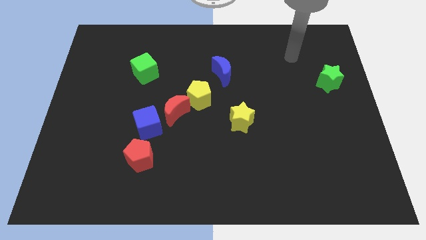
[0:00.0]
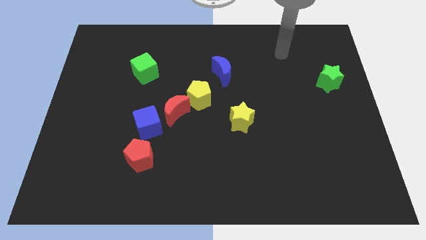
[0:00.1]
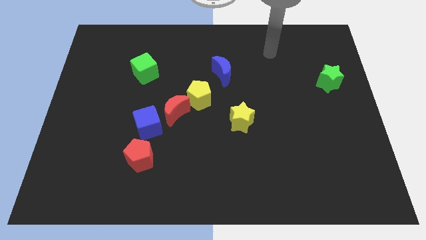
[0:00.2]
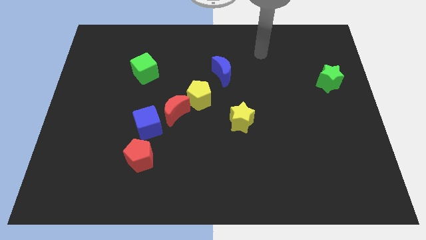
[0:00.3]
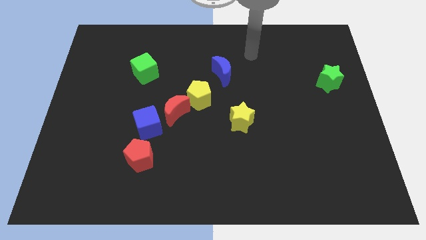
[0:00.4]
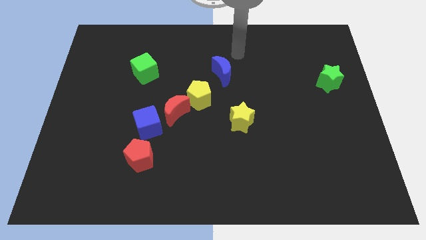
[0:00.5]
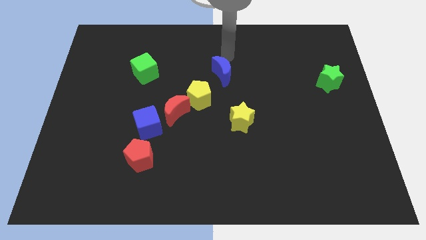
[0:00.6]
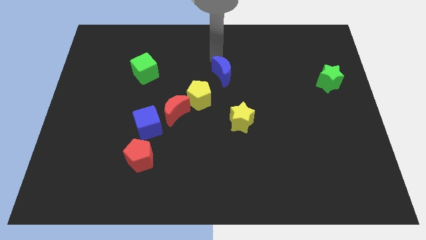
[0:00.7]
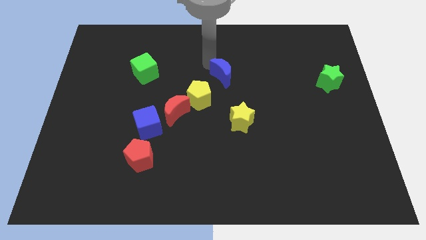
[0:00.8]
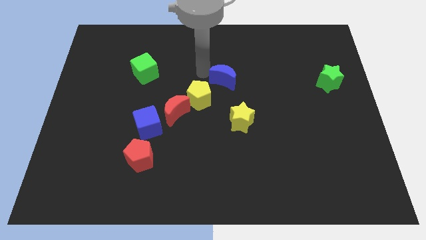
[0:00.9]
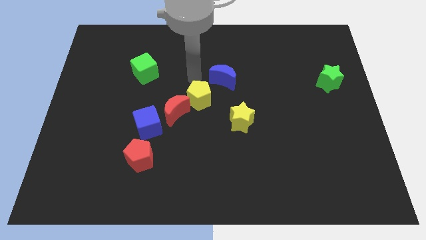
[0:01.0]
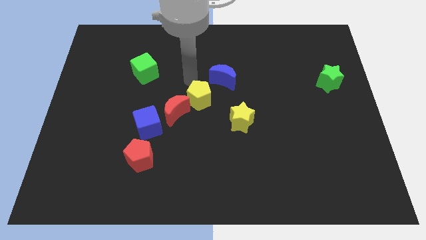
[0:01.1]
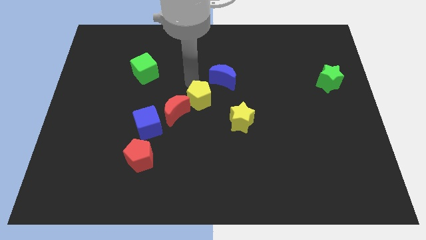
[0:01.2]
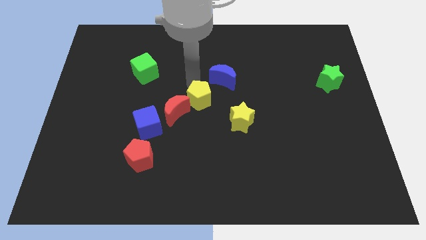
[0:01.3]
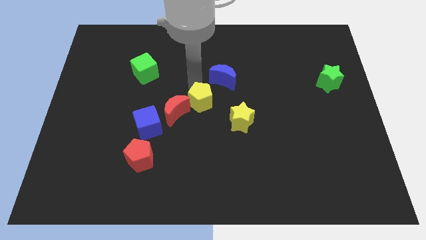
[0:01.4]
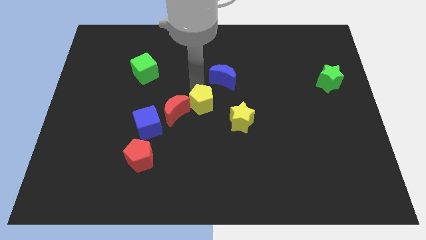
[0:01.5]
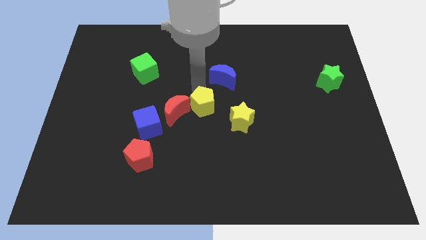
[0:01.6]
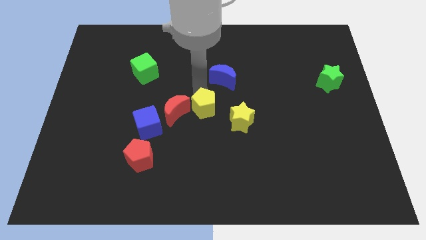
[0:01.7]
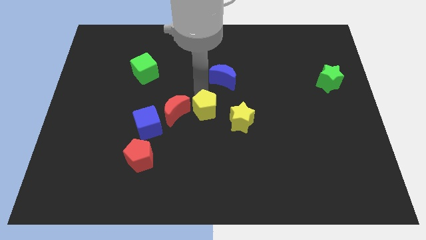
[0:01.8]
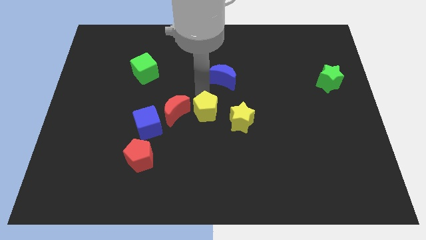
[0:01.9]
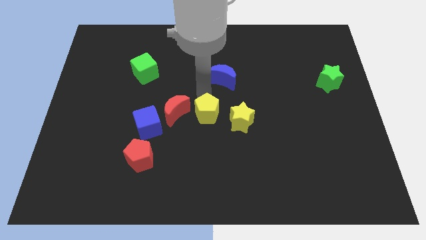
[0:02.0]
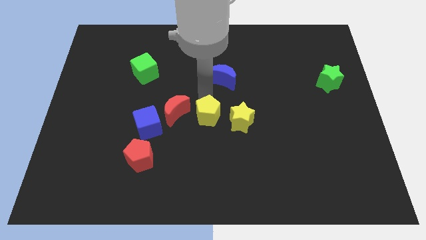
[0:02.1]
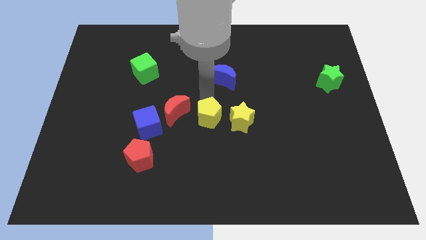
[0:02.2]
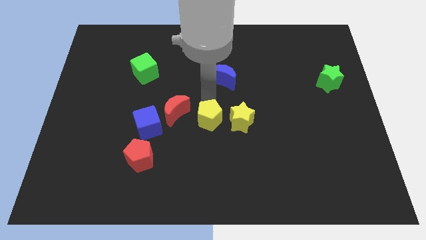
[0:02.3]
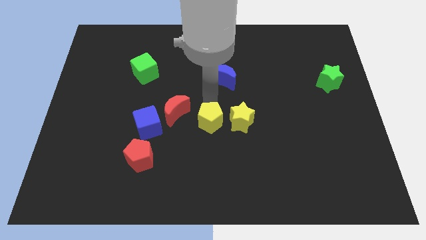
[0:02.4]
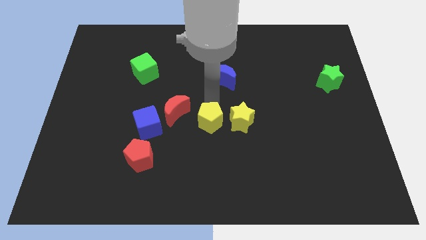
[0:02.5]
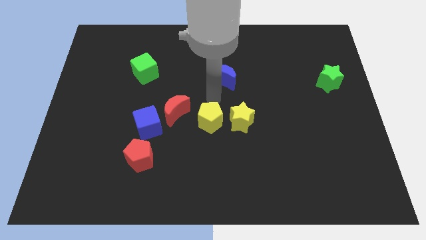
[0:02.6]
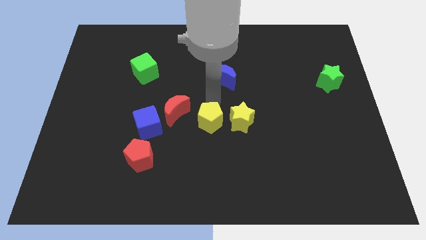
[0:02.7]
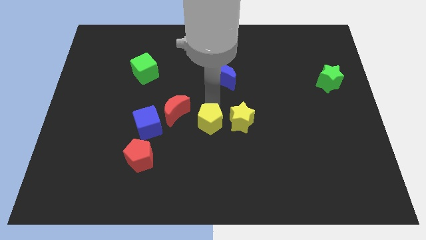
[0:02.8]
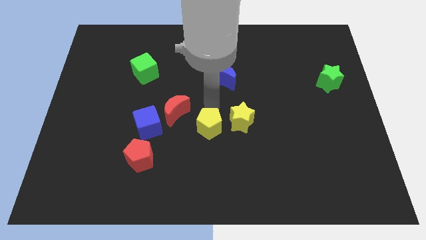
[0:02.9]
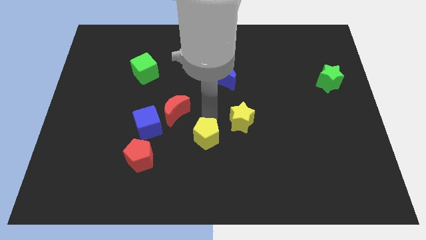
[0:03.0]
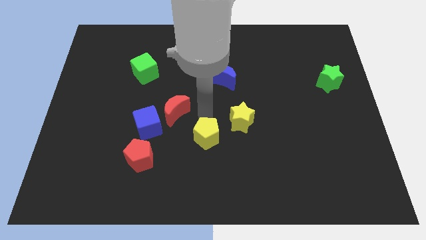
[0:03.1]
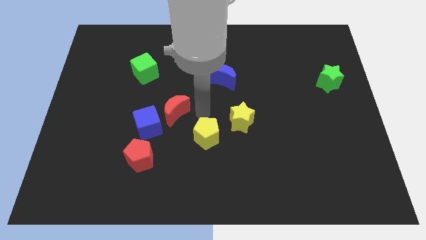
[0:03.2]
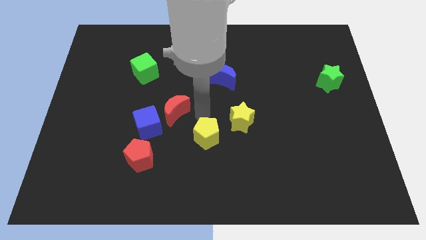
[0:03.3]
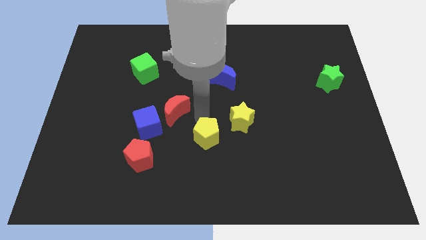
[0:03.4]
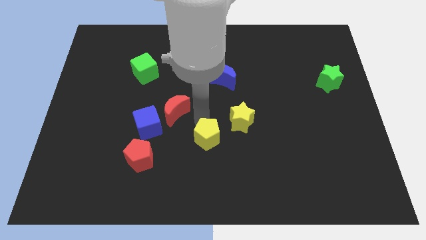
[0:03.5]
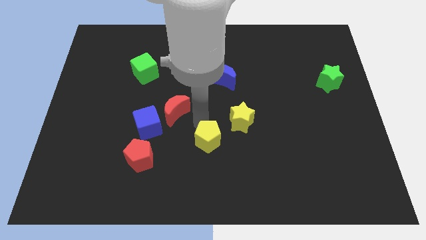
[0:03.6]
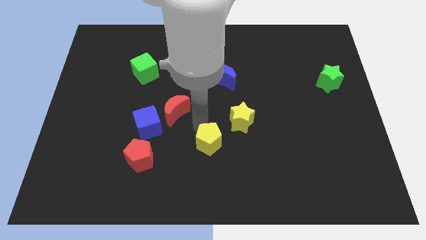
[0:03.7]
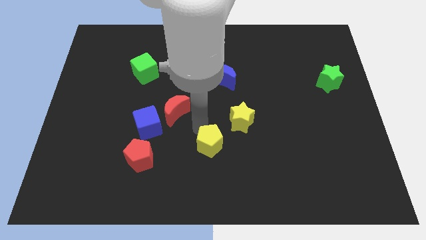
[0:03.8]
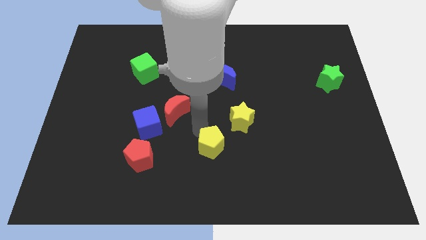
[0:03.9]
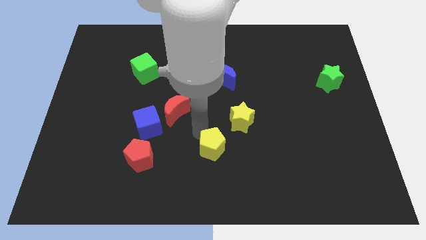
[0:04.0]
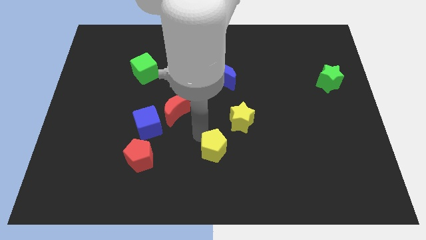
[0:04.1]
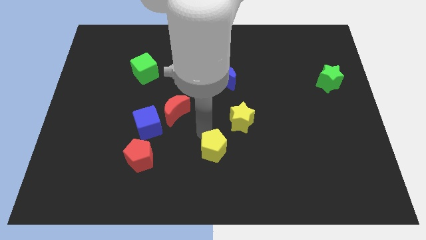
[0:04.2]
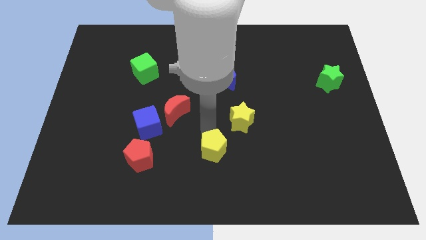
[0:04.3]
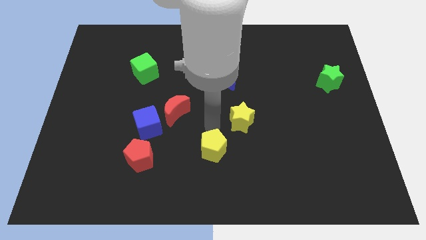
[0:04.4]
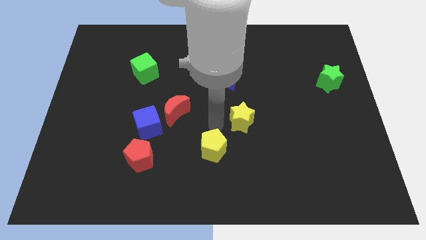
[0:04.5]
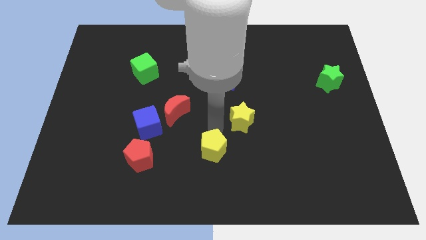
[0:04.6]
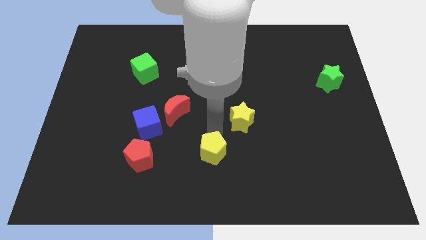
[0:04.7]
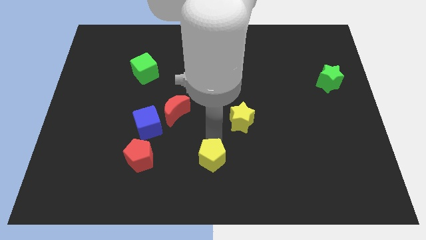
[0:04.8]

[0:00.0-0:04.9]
move the yellow pentagon to the bottom side
